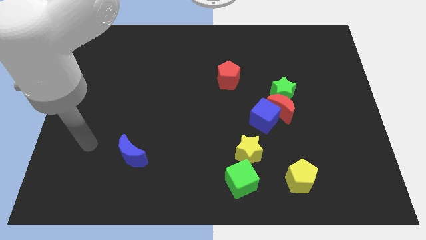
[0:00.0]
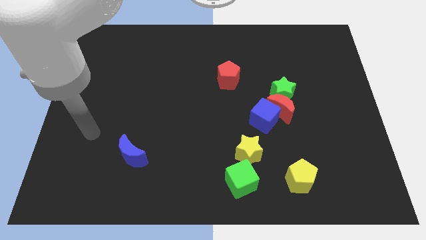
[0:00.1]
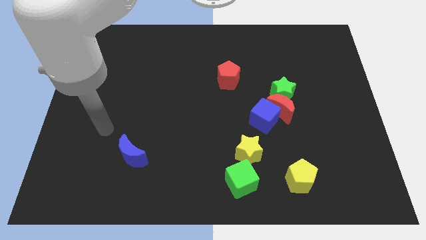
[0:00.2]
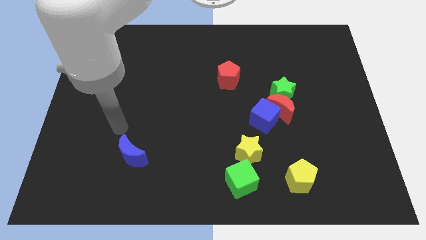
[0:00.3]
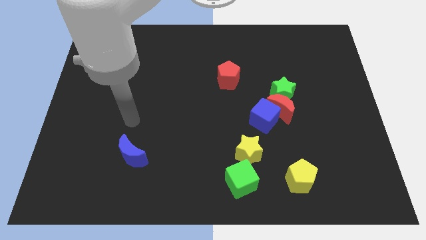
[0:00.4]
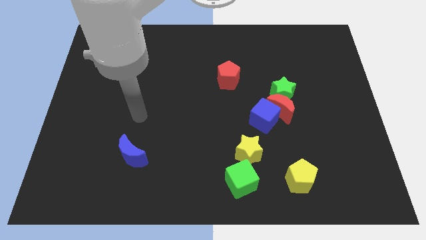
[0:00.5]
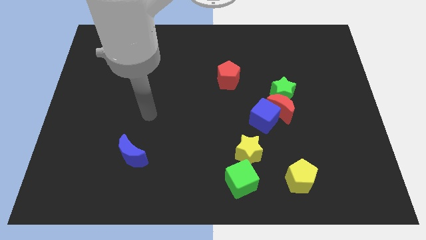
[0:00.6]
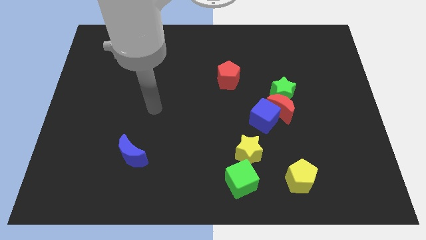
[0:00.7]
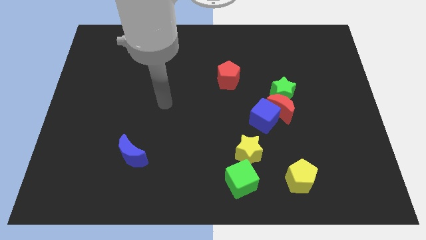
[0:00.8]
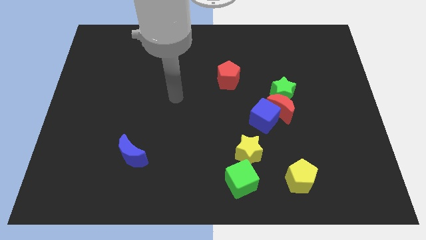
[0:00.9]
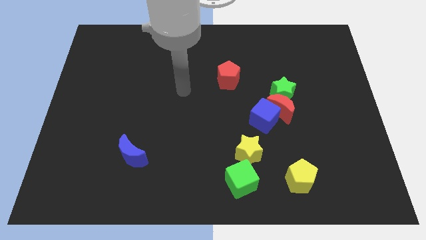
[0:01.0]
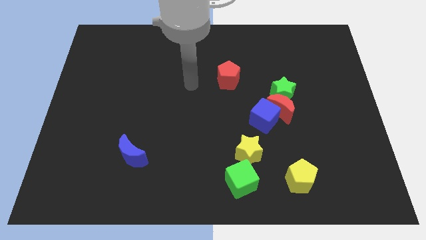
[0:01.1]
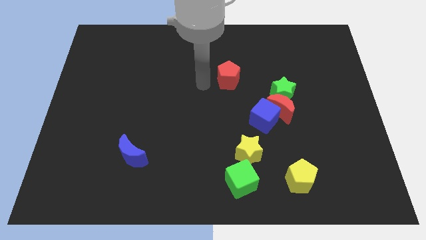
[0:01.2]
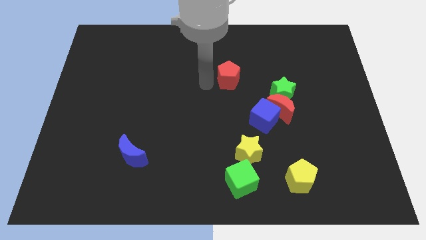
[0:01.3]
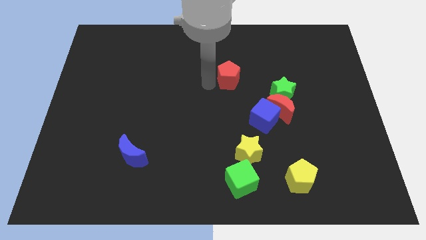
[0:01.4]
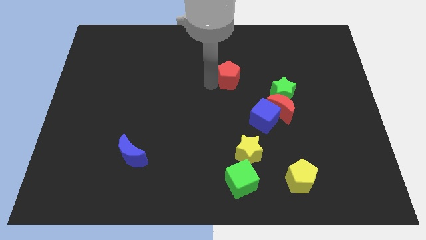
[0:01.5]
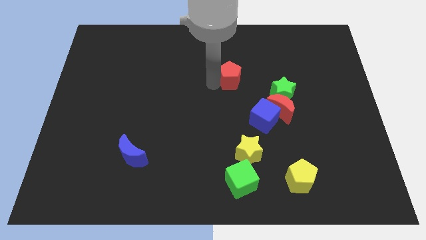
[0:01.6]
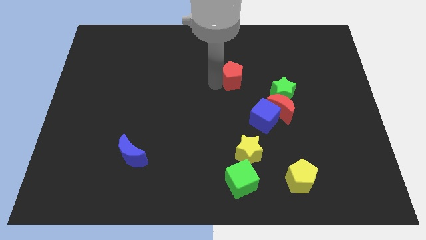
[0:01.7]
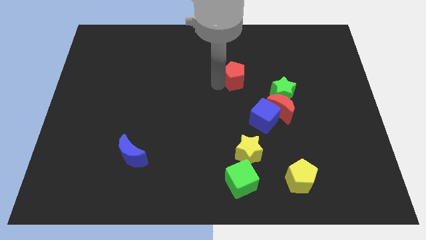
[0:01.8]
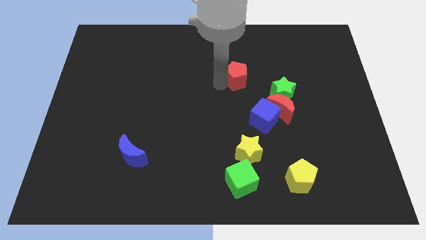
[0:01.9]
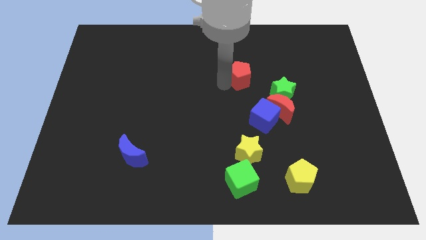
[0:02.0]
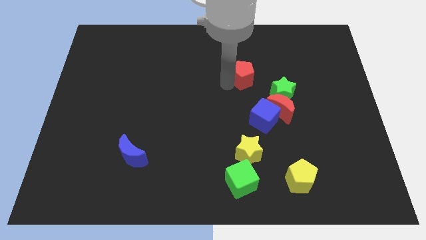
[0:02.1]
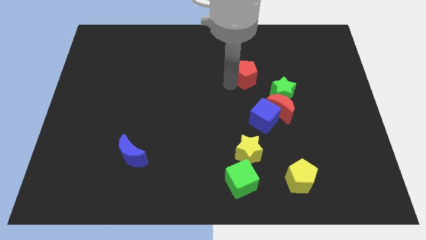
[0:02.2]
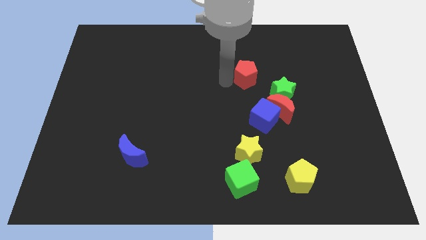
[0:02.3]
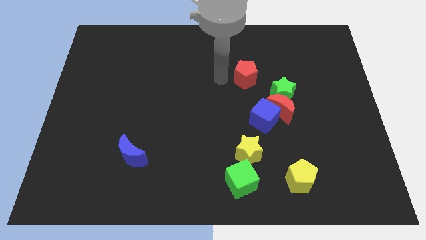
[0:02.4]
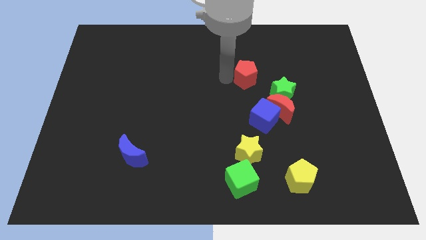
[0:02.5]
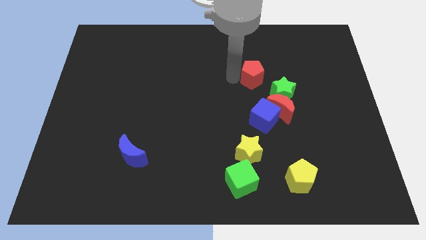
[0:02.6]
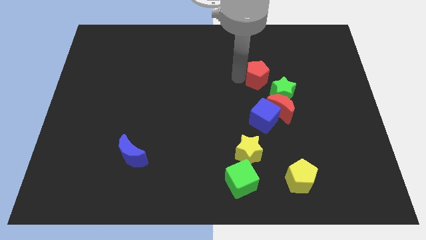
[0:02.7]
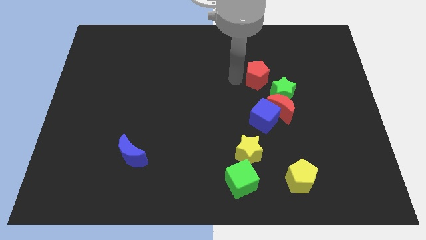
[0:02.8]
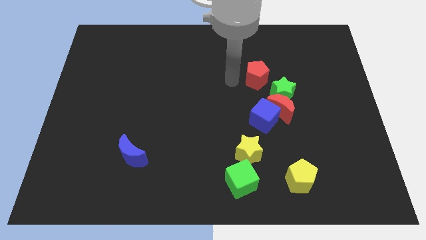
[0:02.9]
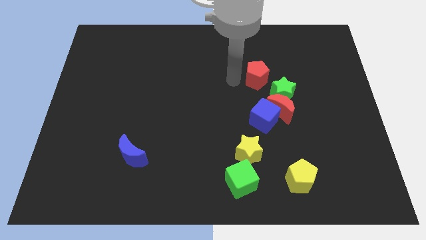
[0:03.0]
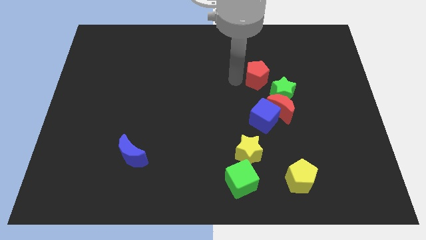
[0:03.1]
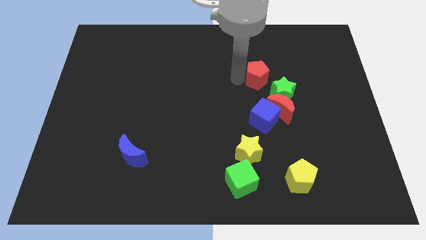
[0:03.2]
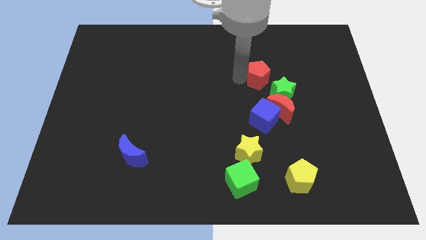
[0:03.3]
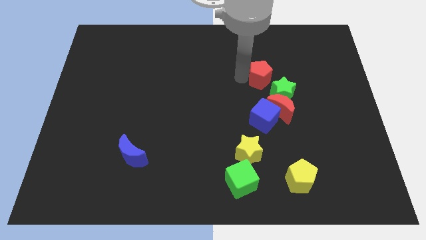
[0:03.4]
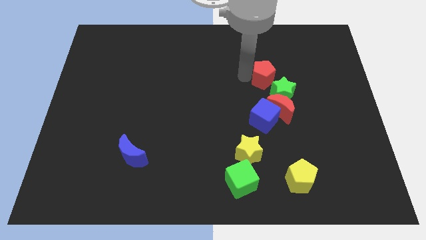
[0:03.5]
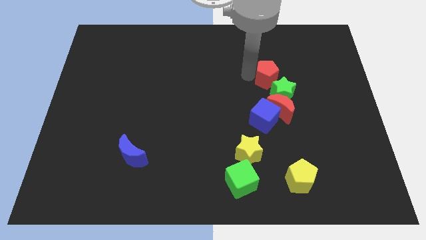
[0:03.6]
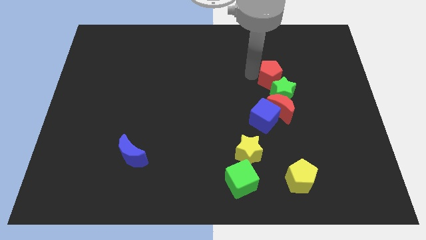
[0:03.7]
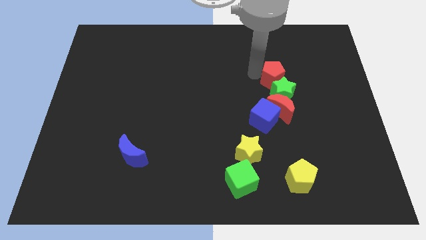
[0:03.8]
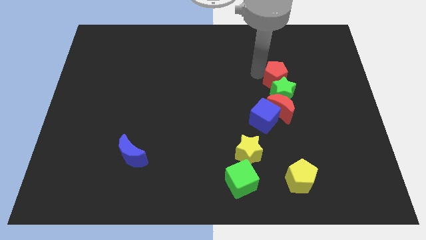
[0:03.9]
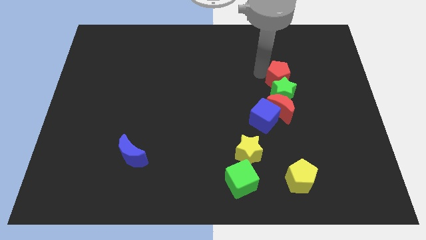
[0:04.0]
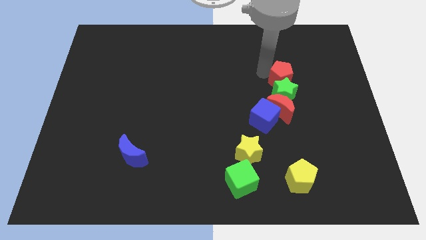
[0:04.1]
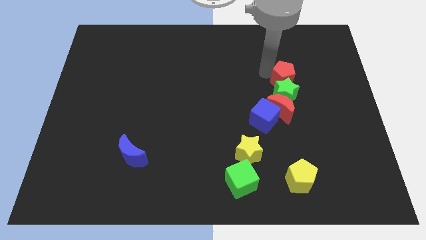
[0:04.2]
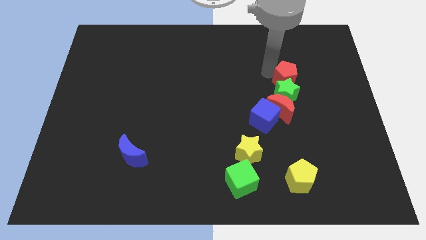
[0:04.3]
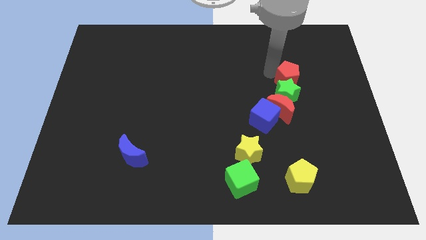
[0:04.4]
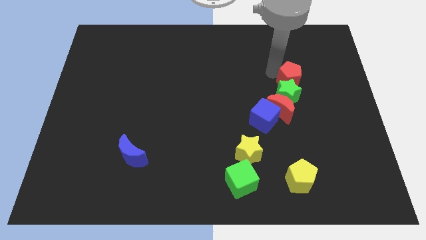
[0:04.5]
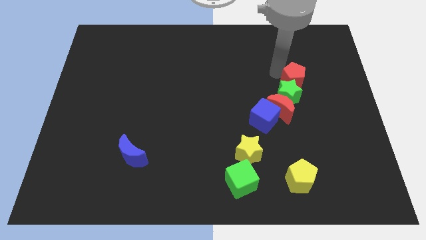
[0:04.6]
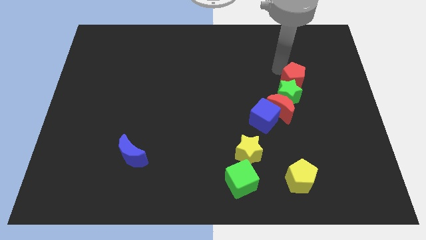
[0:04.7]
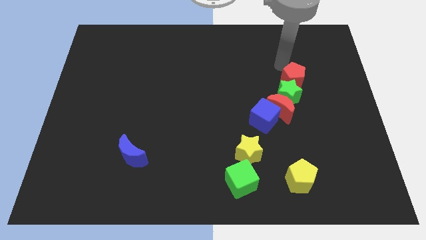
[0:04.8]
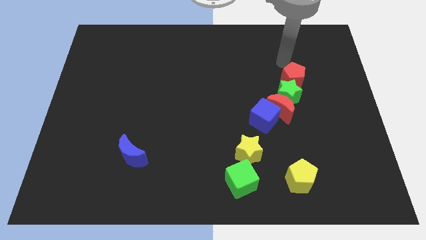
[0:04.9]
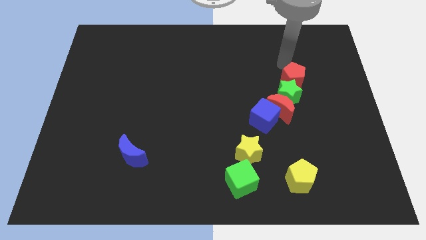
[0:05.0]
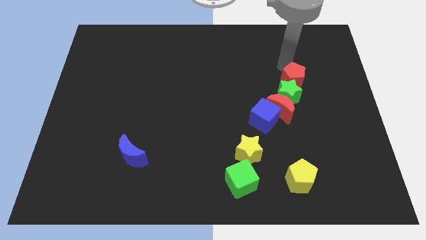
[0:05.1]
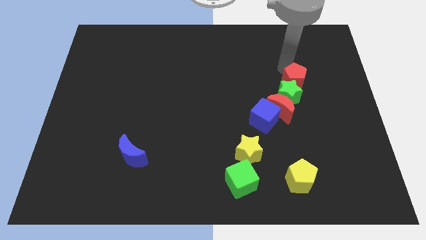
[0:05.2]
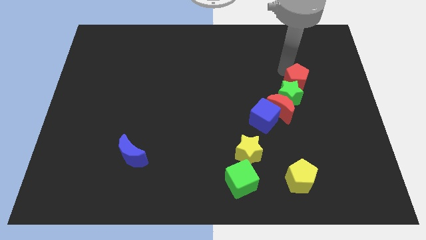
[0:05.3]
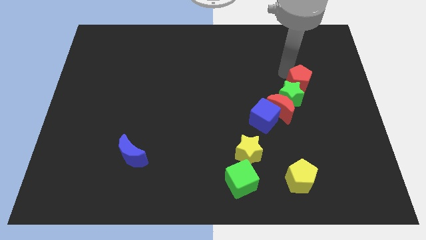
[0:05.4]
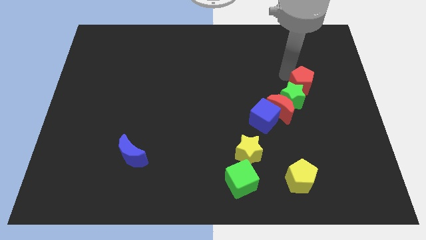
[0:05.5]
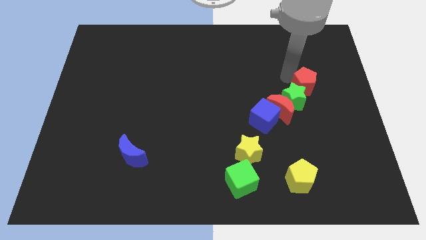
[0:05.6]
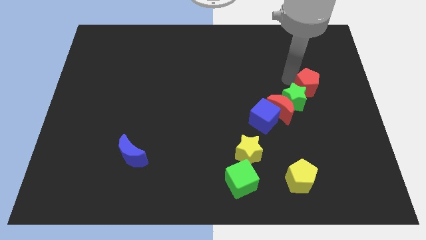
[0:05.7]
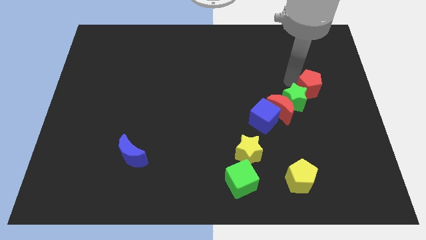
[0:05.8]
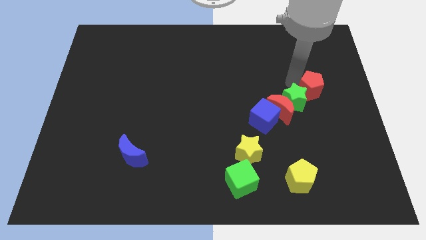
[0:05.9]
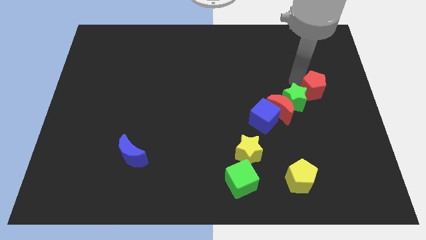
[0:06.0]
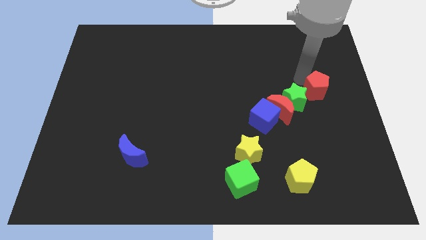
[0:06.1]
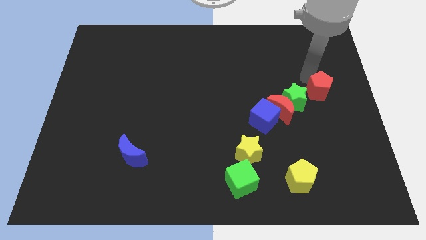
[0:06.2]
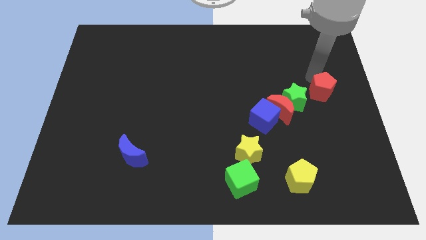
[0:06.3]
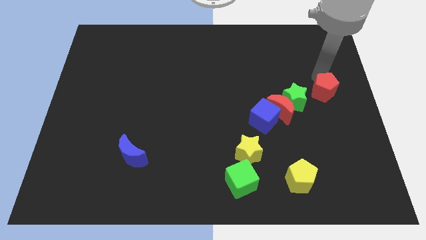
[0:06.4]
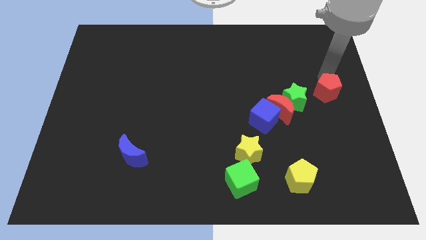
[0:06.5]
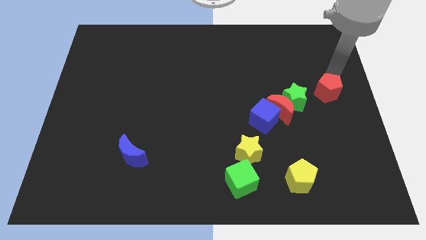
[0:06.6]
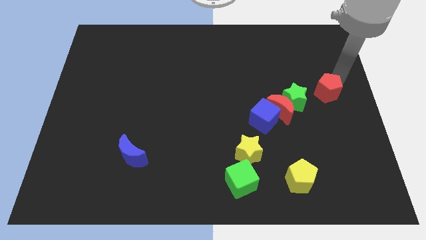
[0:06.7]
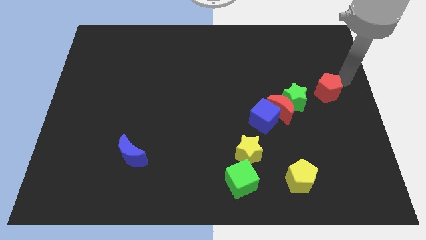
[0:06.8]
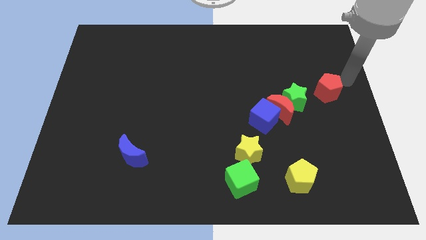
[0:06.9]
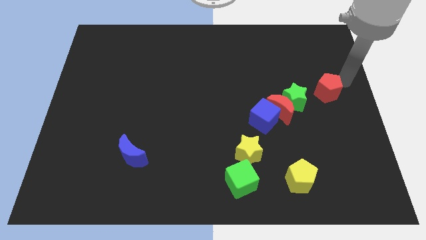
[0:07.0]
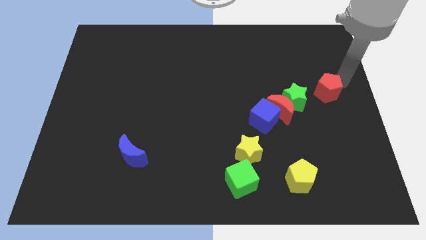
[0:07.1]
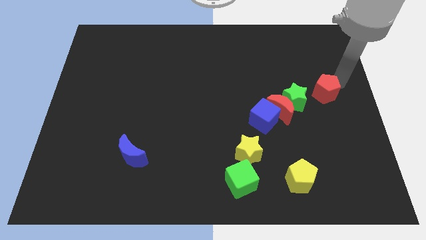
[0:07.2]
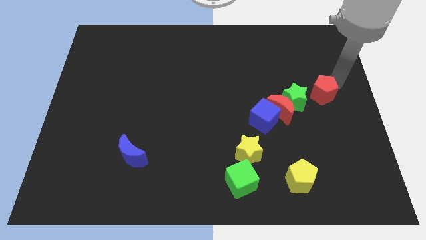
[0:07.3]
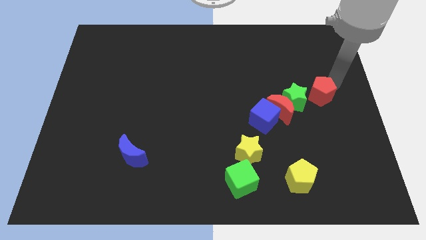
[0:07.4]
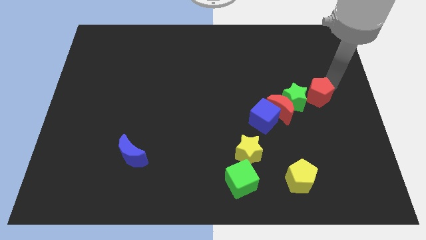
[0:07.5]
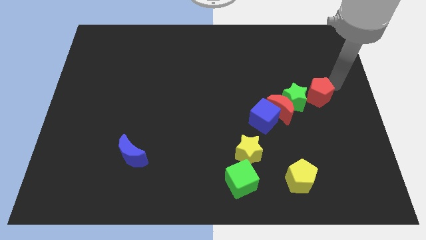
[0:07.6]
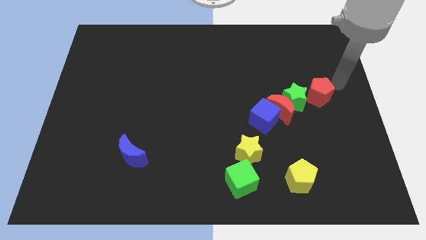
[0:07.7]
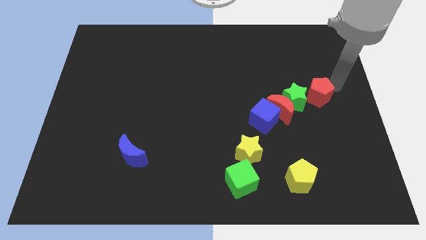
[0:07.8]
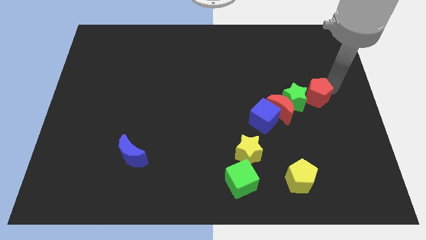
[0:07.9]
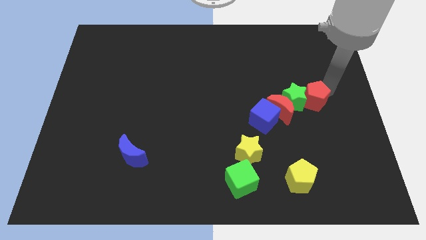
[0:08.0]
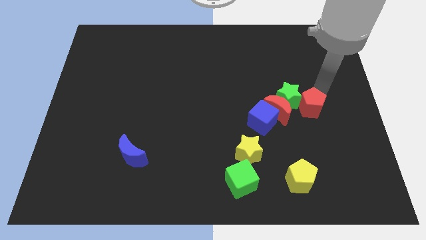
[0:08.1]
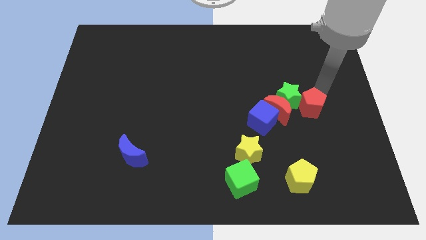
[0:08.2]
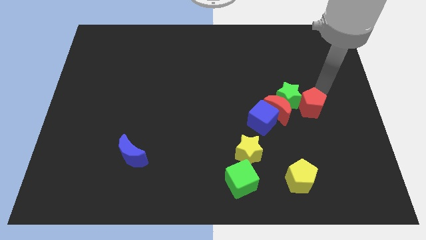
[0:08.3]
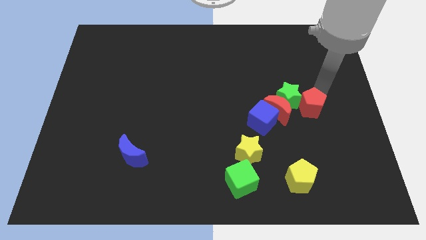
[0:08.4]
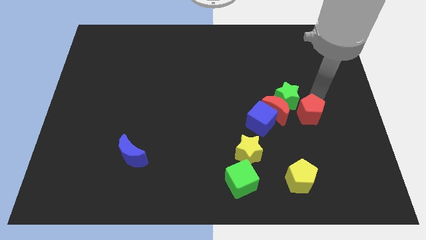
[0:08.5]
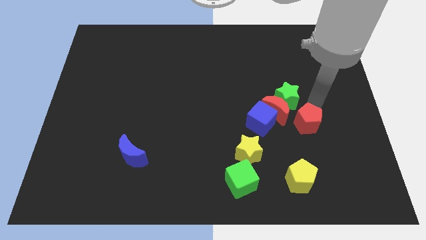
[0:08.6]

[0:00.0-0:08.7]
slide the red pentagon to the bottom side of the green star
